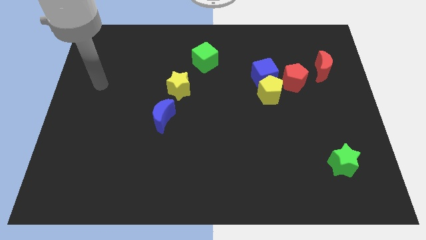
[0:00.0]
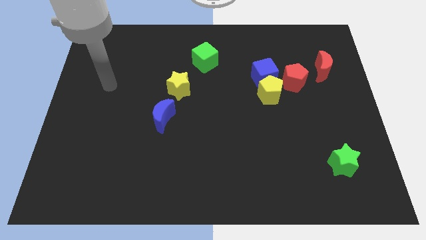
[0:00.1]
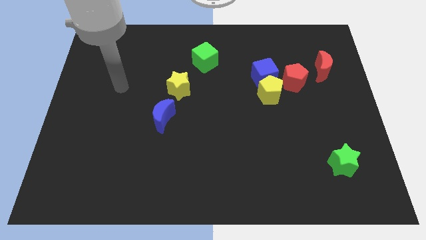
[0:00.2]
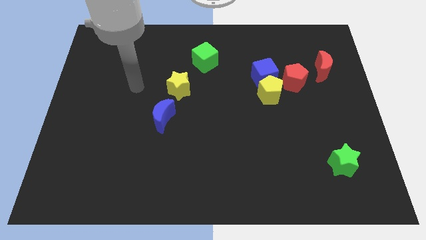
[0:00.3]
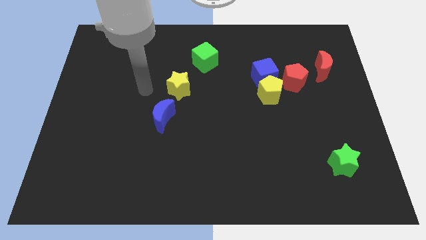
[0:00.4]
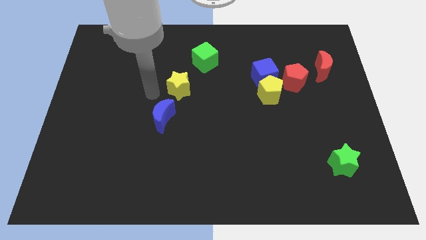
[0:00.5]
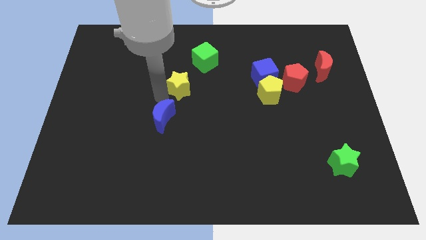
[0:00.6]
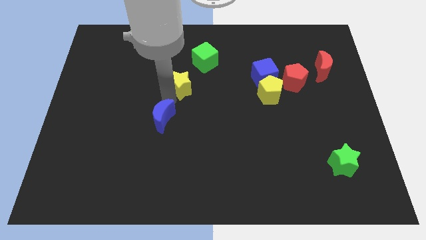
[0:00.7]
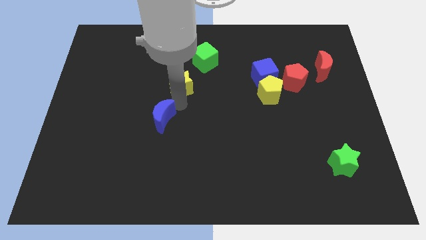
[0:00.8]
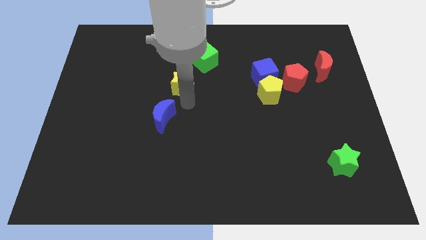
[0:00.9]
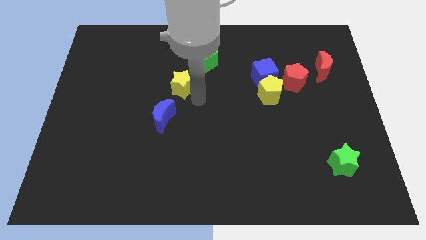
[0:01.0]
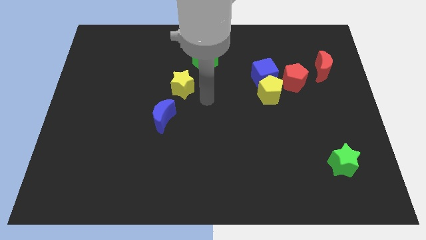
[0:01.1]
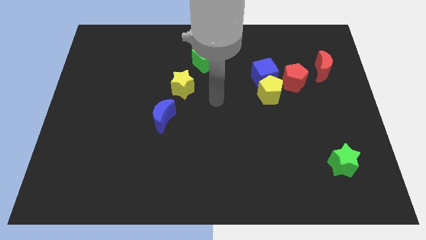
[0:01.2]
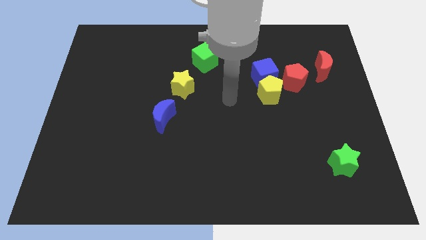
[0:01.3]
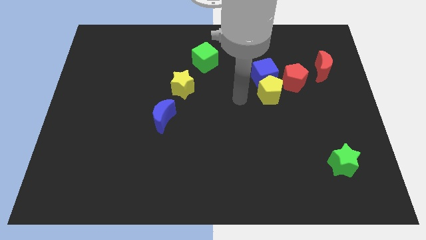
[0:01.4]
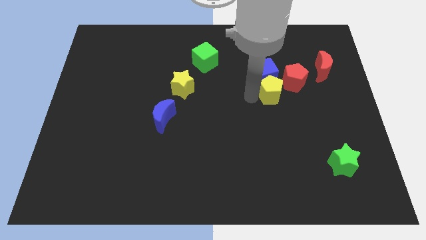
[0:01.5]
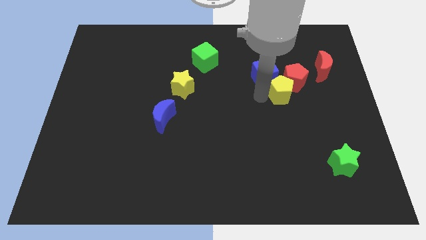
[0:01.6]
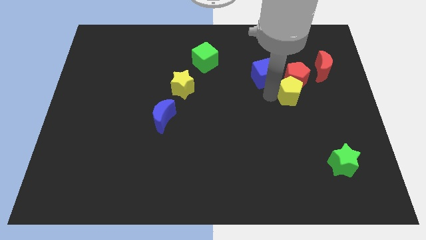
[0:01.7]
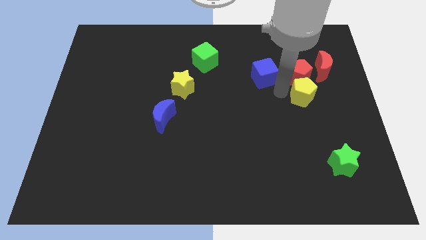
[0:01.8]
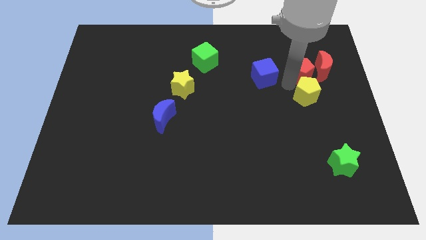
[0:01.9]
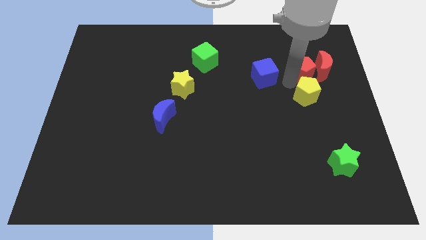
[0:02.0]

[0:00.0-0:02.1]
separate the blue cube from the yellow pentagon and red pentagon

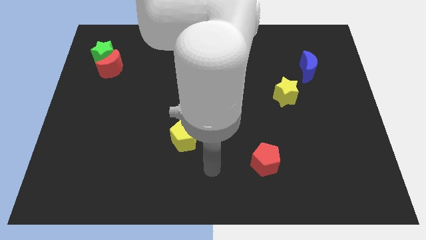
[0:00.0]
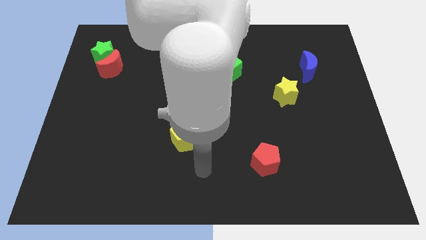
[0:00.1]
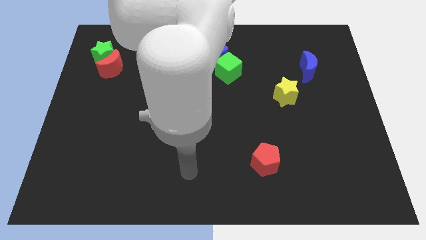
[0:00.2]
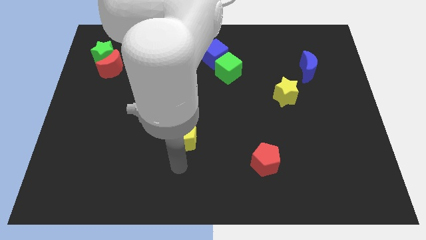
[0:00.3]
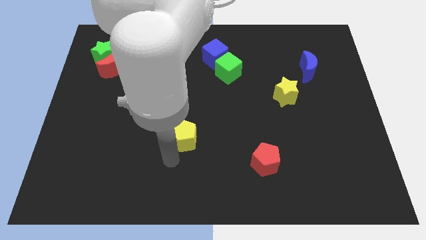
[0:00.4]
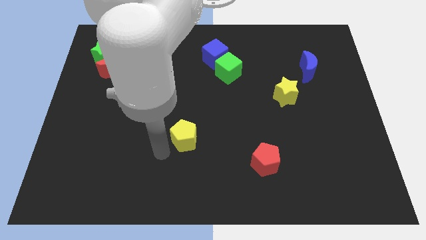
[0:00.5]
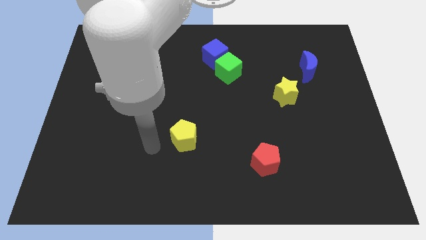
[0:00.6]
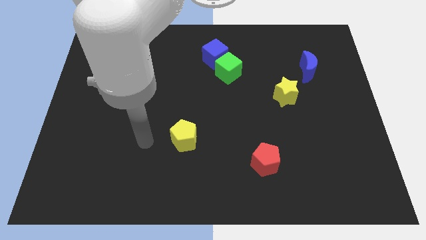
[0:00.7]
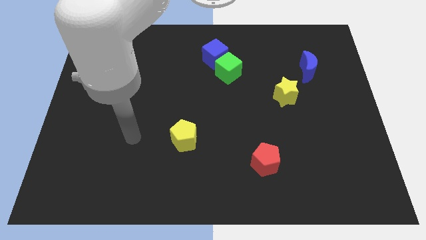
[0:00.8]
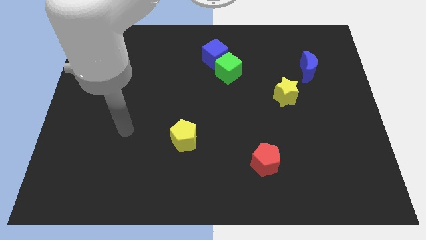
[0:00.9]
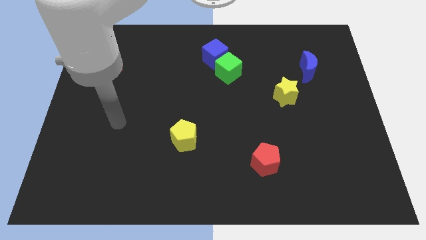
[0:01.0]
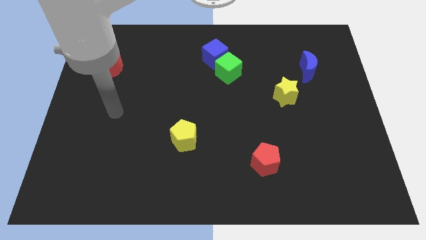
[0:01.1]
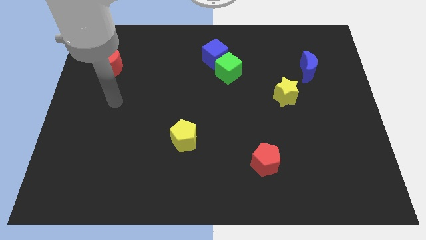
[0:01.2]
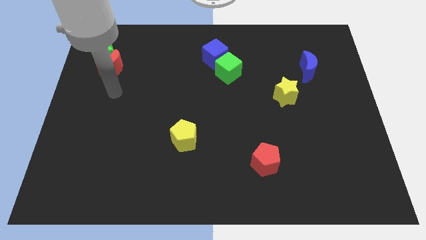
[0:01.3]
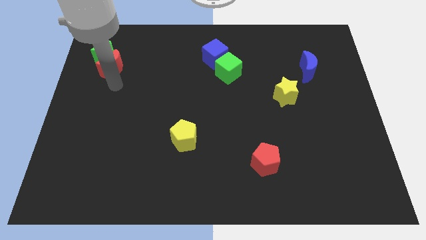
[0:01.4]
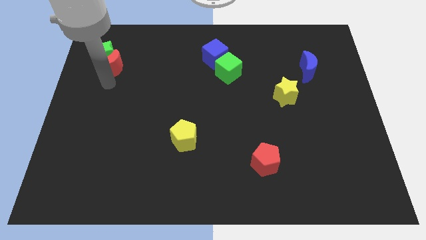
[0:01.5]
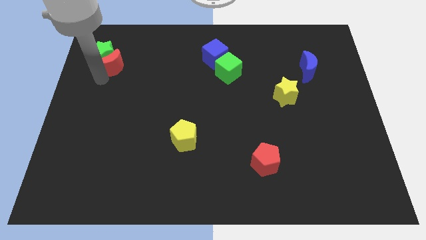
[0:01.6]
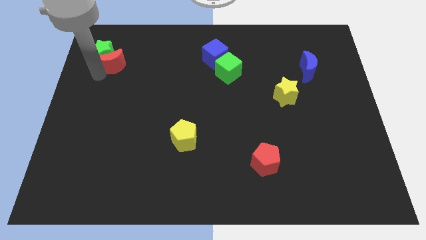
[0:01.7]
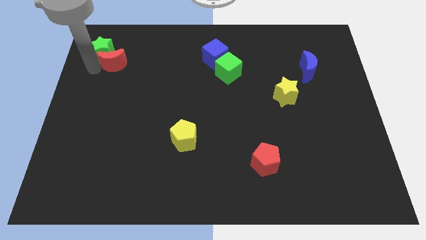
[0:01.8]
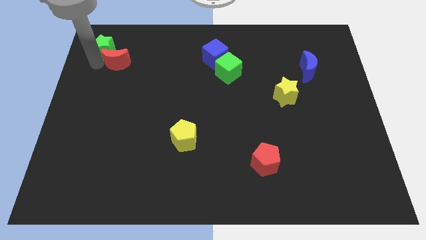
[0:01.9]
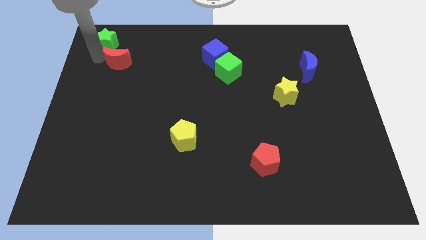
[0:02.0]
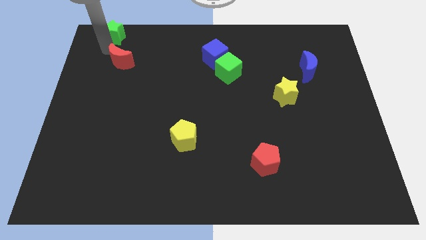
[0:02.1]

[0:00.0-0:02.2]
pull the red moon apart from the green star

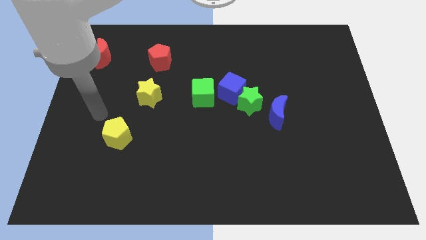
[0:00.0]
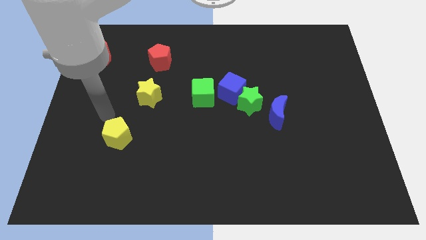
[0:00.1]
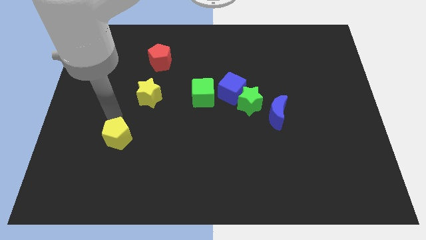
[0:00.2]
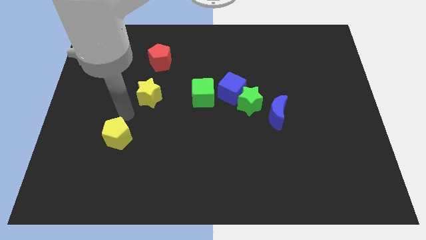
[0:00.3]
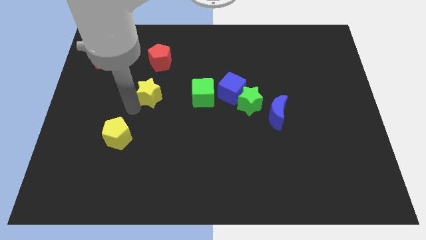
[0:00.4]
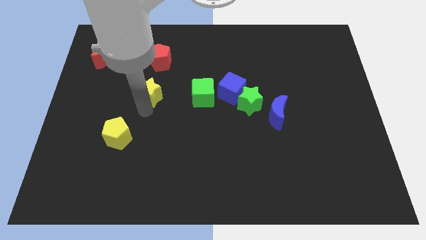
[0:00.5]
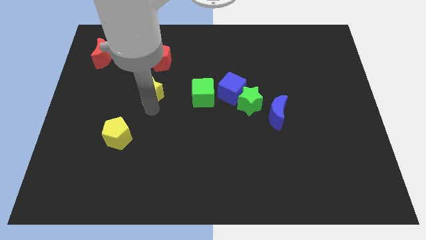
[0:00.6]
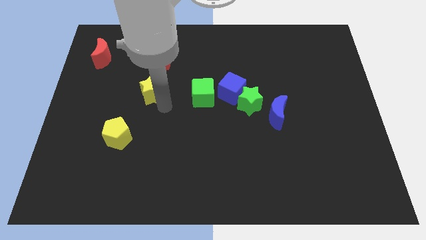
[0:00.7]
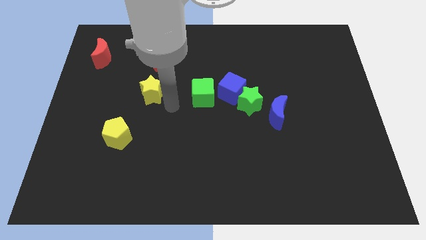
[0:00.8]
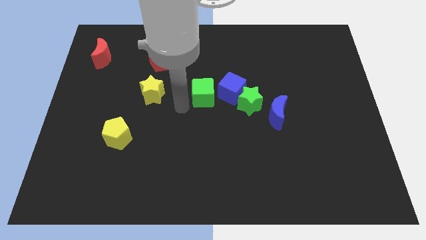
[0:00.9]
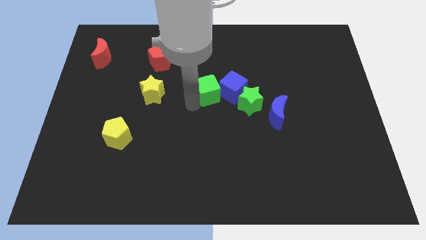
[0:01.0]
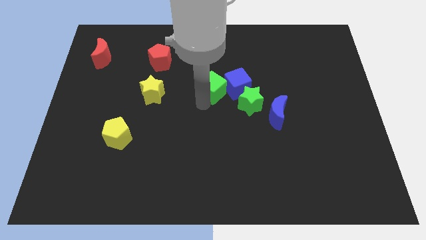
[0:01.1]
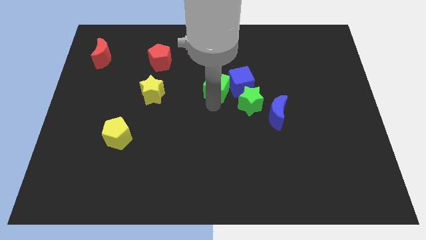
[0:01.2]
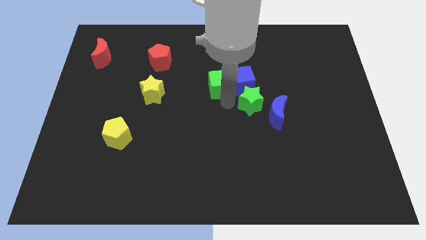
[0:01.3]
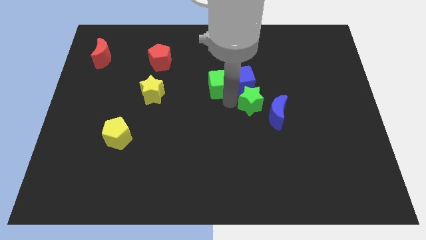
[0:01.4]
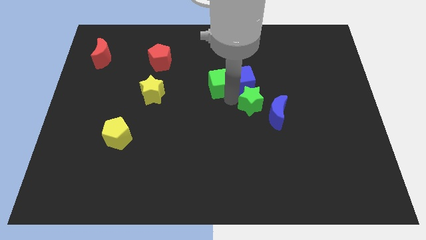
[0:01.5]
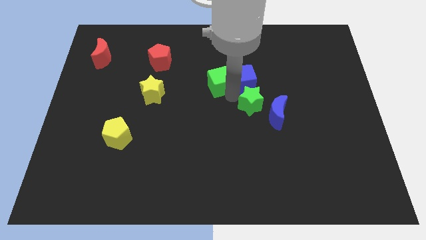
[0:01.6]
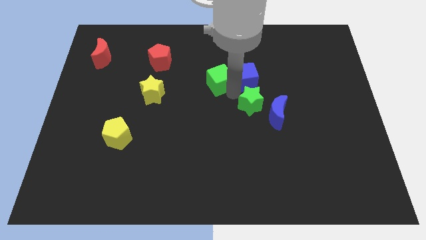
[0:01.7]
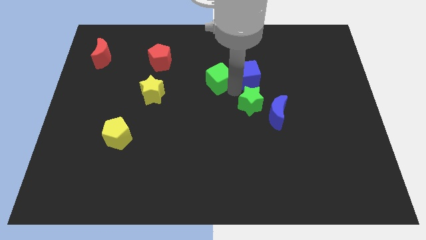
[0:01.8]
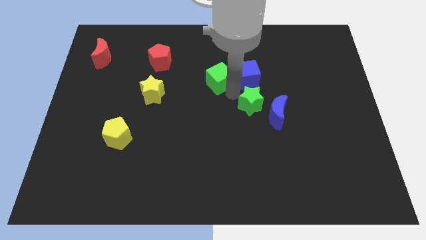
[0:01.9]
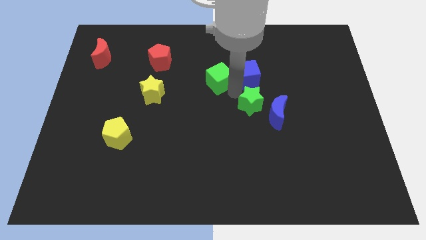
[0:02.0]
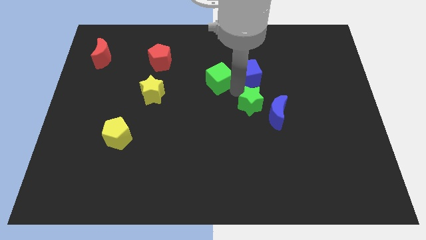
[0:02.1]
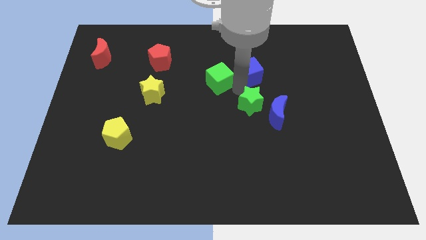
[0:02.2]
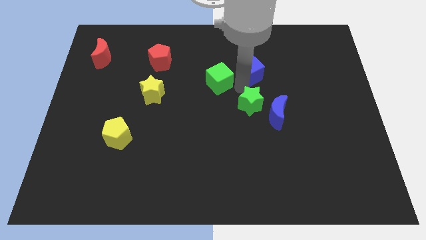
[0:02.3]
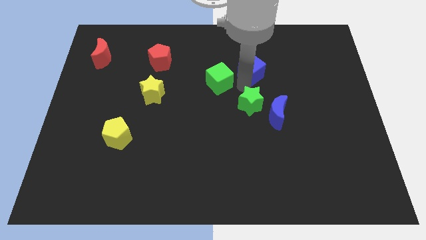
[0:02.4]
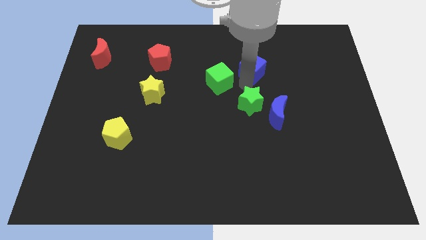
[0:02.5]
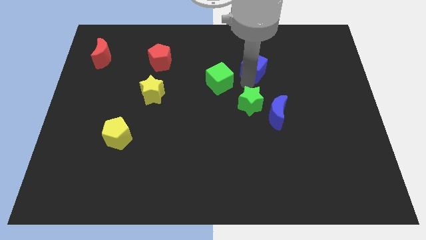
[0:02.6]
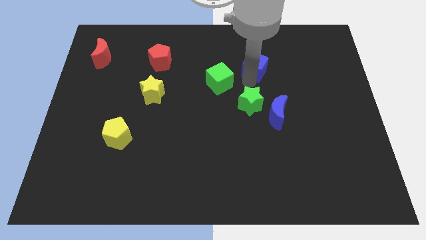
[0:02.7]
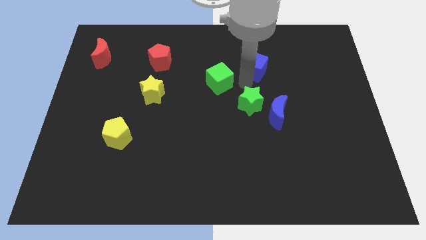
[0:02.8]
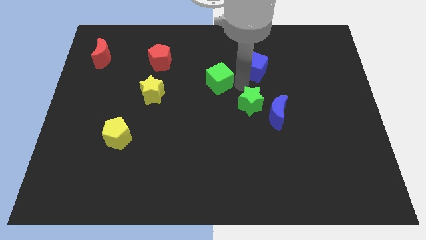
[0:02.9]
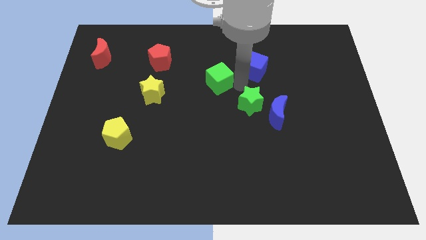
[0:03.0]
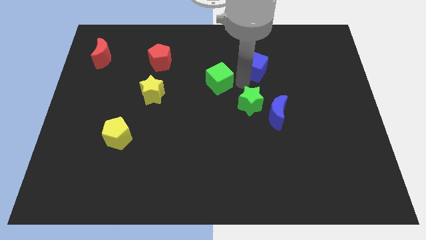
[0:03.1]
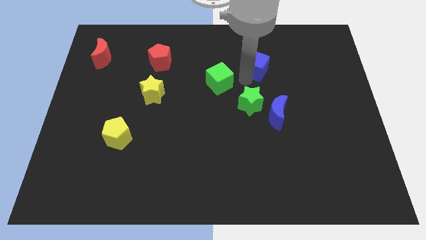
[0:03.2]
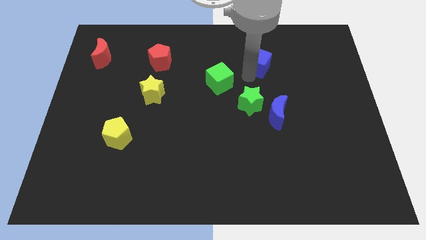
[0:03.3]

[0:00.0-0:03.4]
move the blue cube away from the green star and green cube

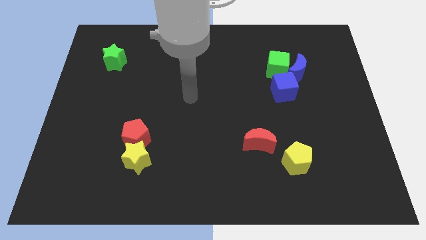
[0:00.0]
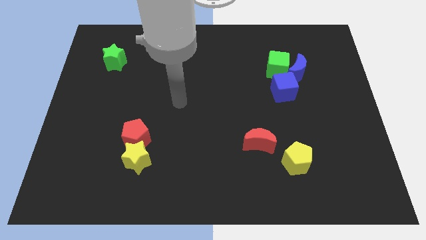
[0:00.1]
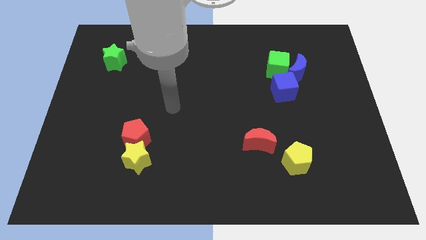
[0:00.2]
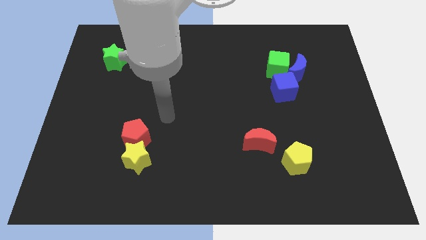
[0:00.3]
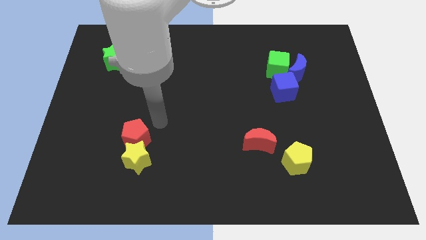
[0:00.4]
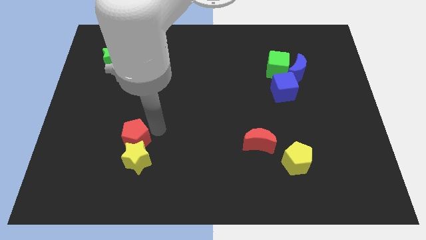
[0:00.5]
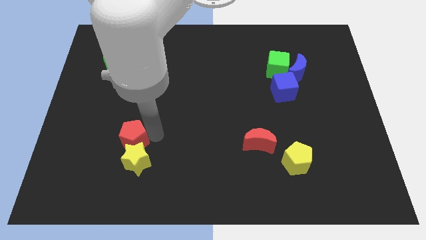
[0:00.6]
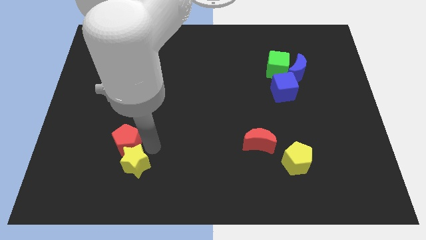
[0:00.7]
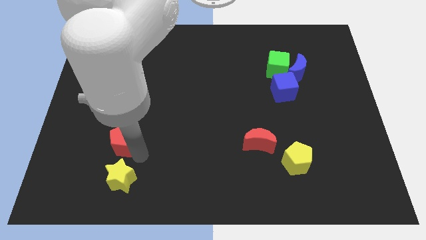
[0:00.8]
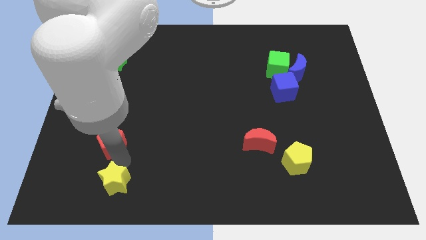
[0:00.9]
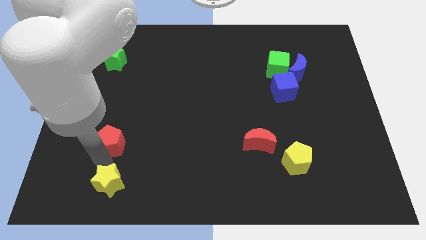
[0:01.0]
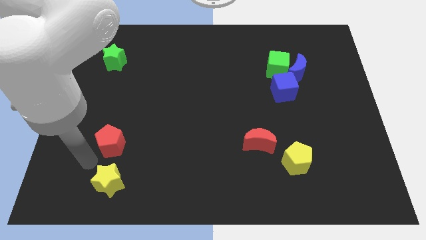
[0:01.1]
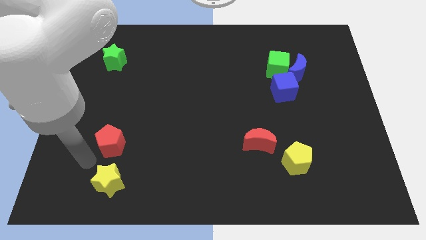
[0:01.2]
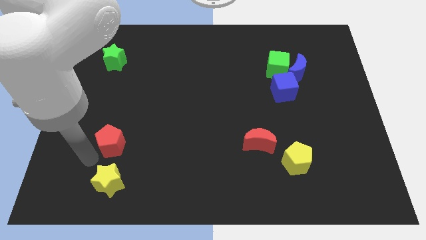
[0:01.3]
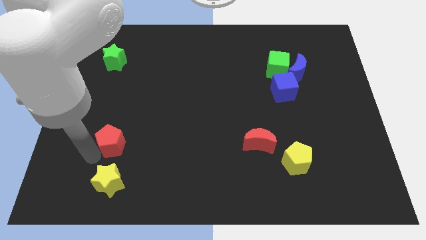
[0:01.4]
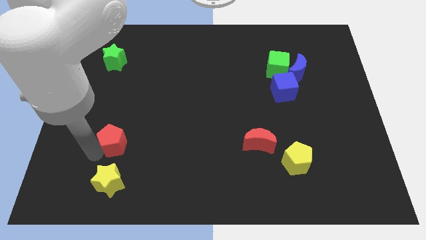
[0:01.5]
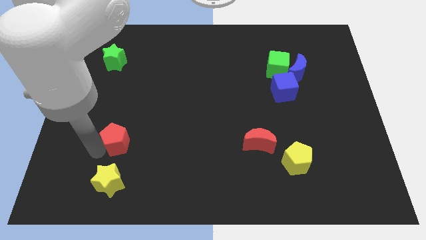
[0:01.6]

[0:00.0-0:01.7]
pull the red pentagon apart from the yellow star
